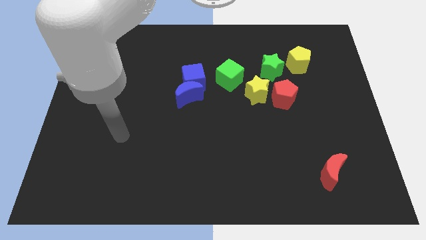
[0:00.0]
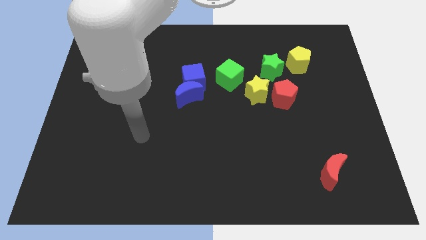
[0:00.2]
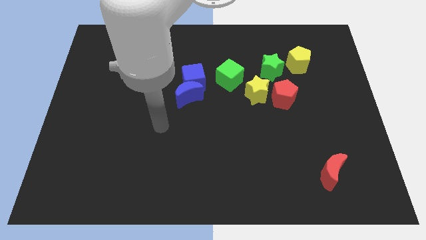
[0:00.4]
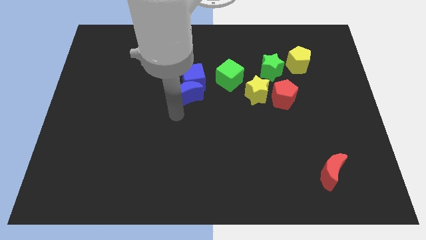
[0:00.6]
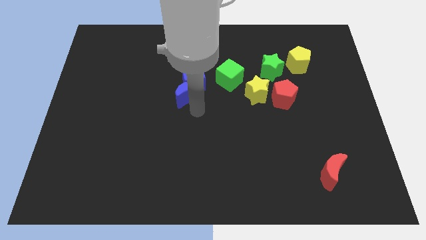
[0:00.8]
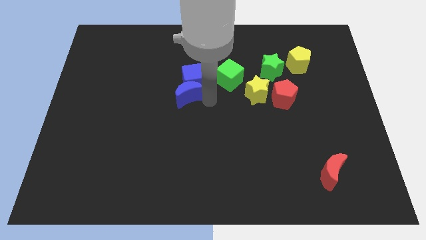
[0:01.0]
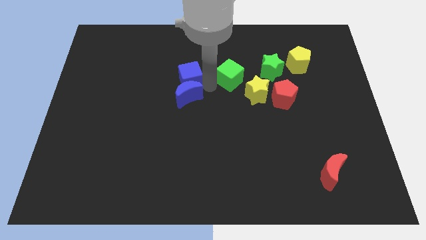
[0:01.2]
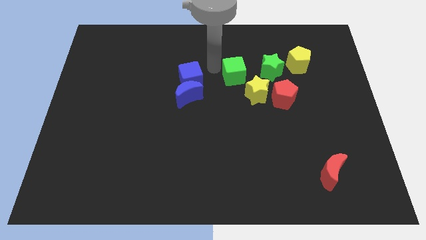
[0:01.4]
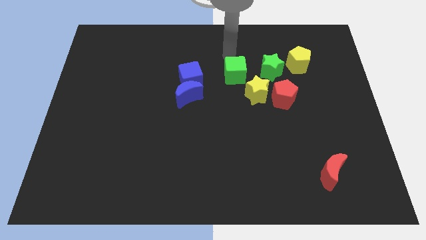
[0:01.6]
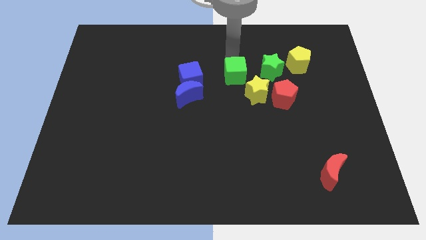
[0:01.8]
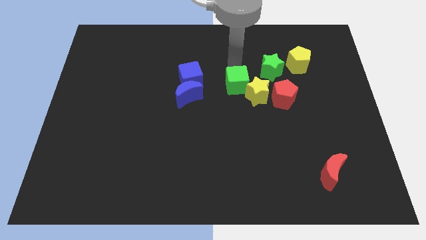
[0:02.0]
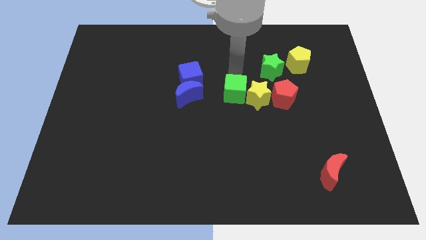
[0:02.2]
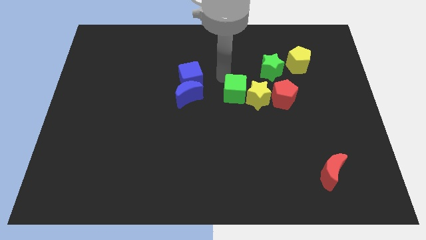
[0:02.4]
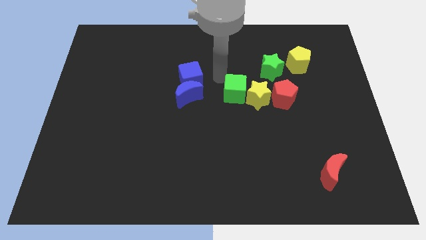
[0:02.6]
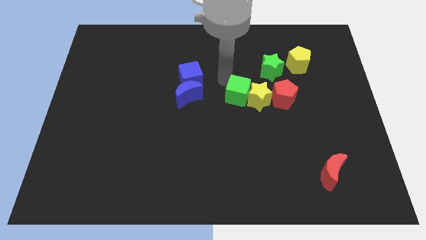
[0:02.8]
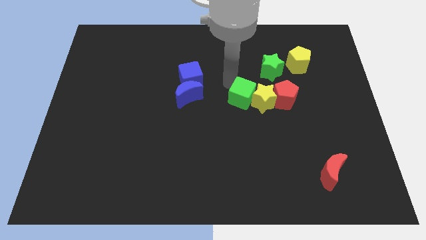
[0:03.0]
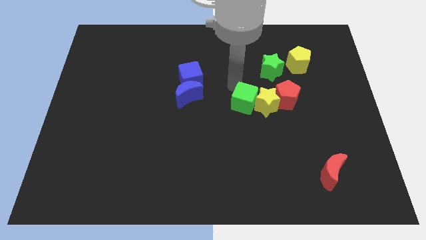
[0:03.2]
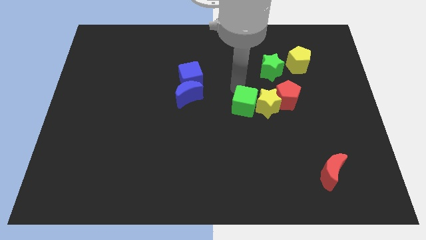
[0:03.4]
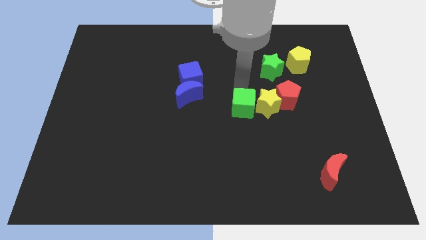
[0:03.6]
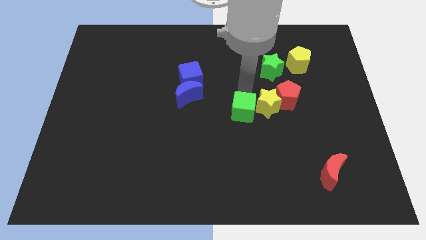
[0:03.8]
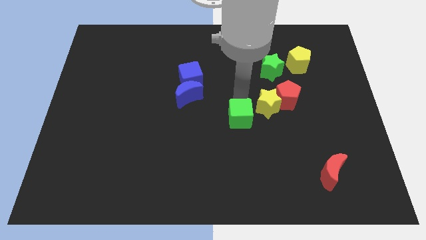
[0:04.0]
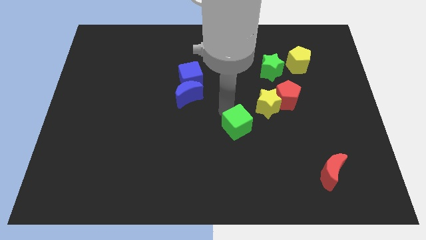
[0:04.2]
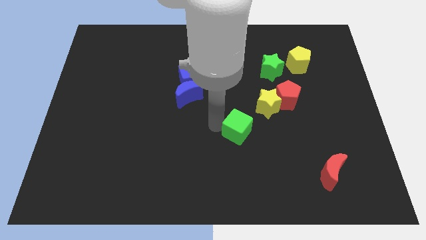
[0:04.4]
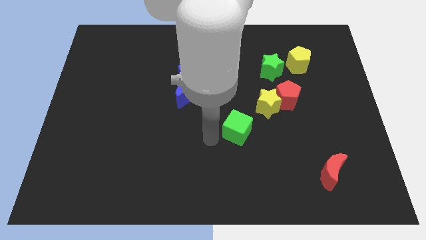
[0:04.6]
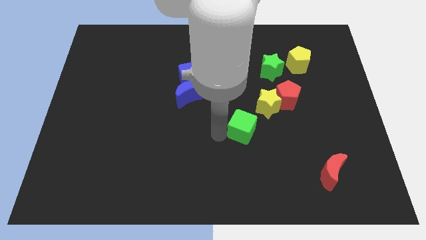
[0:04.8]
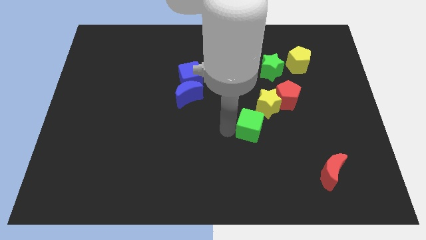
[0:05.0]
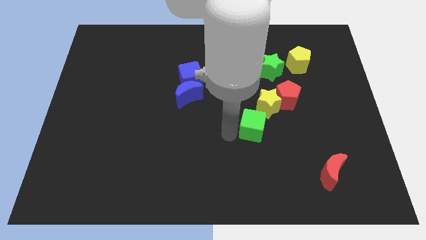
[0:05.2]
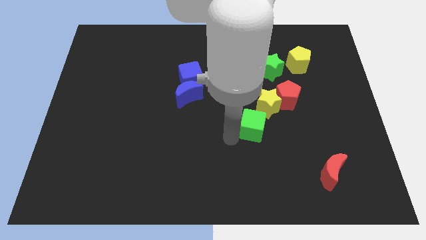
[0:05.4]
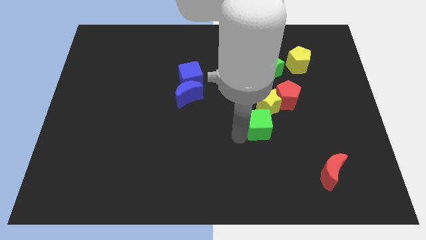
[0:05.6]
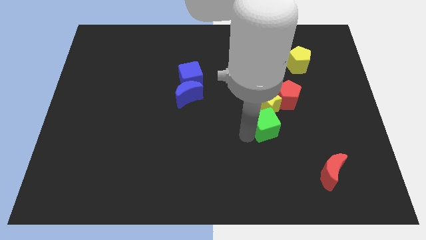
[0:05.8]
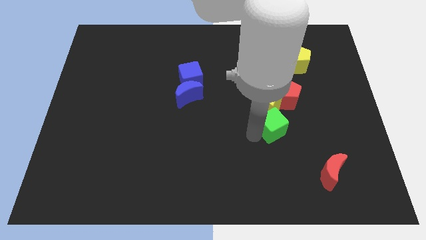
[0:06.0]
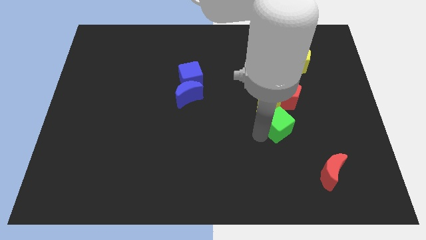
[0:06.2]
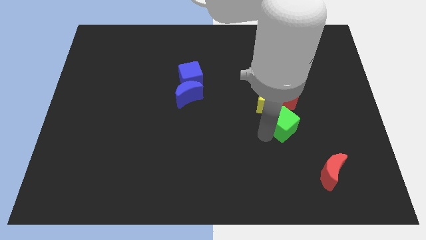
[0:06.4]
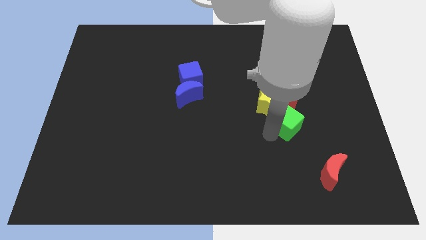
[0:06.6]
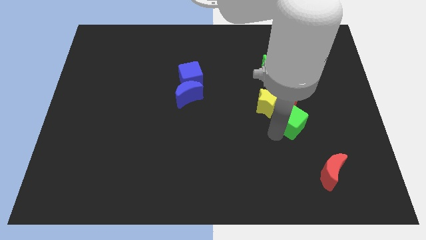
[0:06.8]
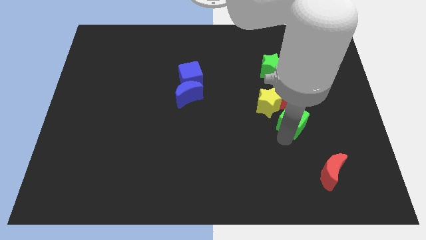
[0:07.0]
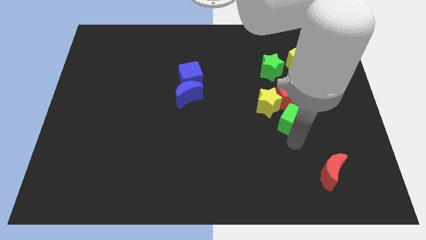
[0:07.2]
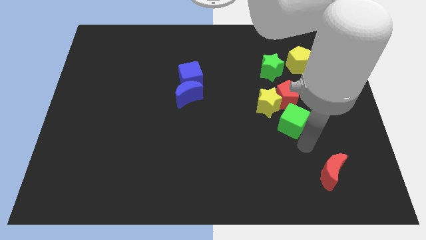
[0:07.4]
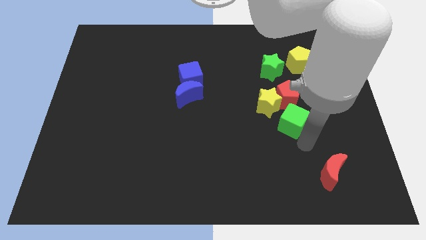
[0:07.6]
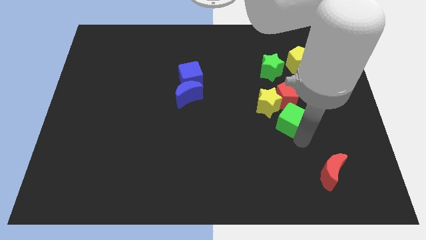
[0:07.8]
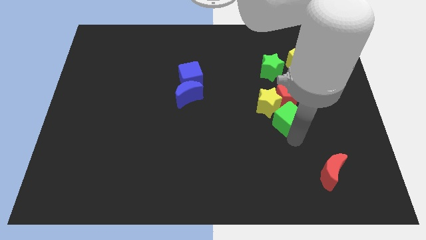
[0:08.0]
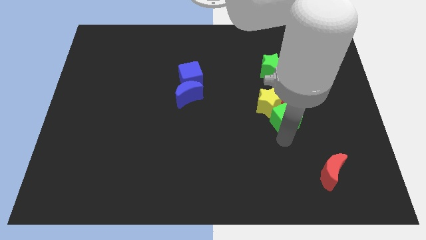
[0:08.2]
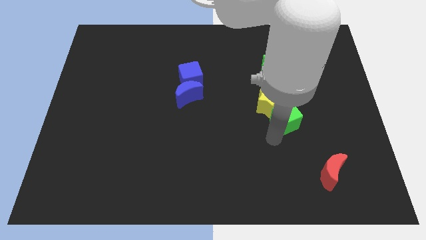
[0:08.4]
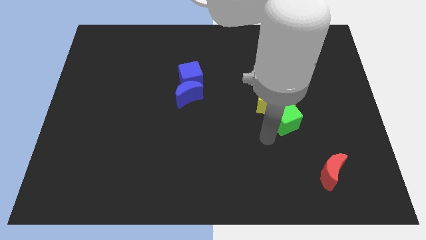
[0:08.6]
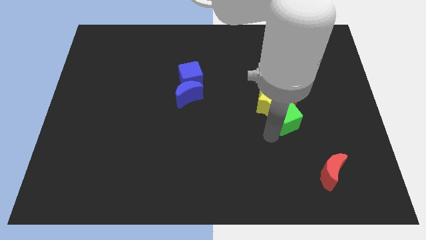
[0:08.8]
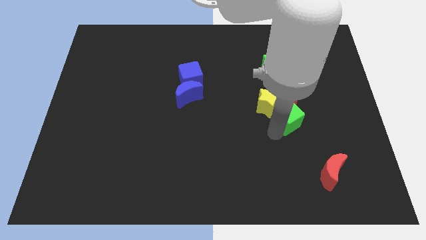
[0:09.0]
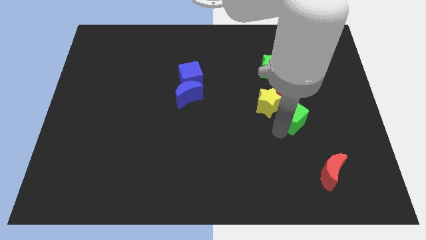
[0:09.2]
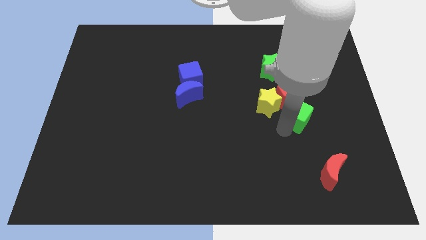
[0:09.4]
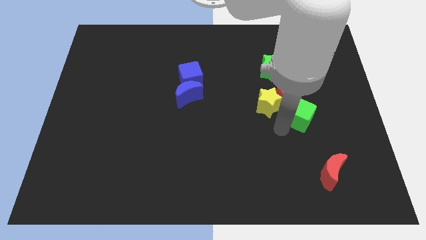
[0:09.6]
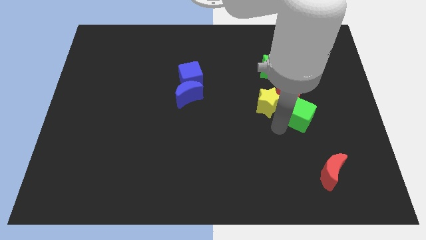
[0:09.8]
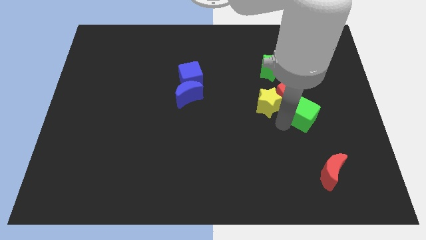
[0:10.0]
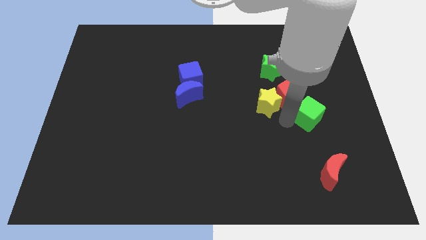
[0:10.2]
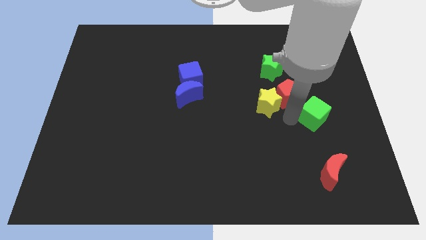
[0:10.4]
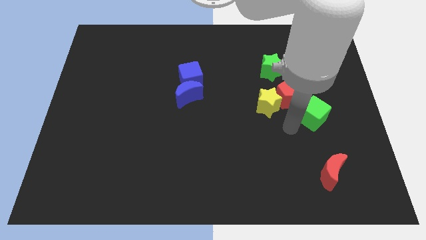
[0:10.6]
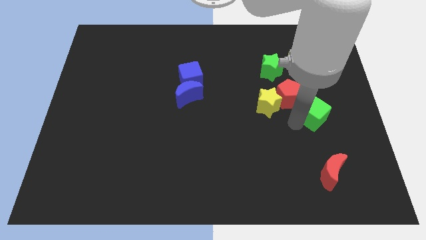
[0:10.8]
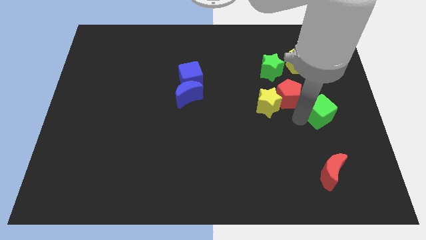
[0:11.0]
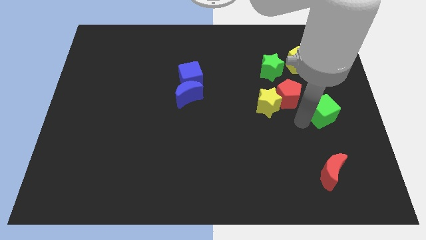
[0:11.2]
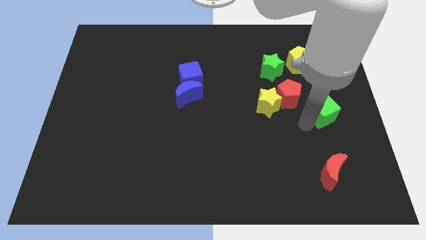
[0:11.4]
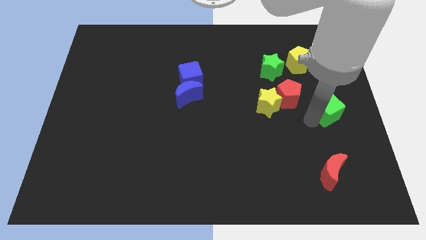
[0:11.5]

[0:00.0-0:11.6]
slide the green cube to the center right

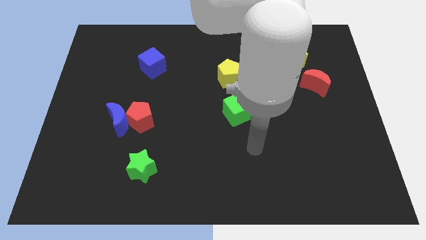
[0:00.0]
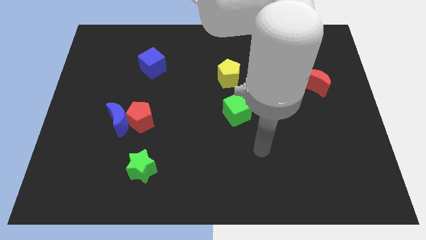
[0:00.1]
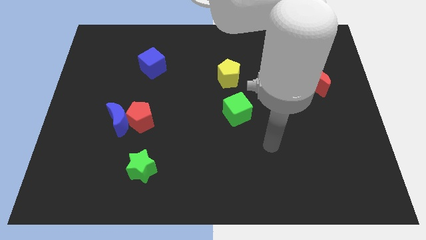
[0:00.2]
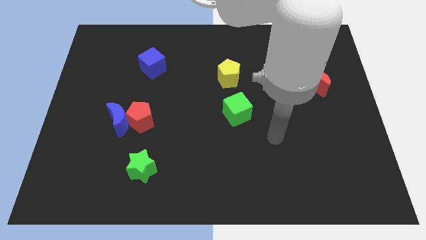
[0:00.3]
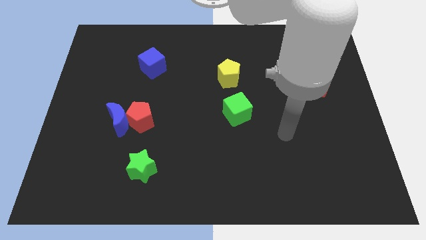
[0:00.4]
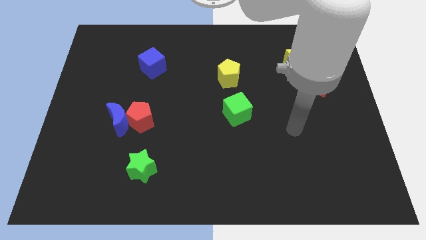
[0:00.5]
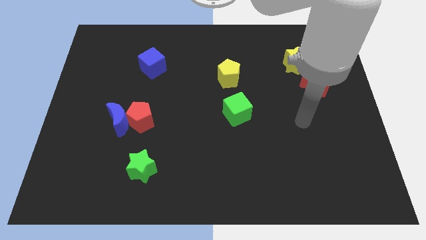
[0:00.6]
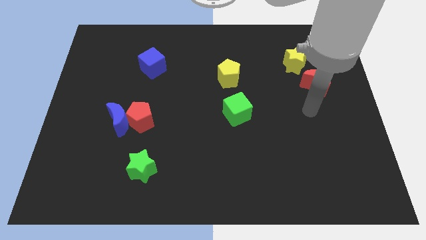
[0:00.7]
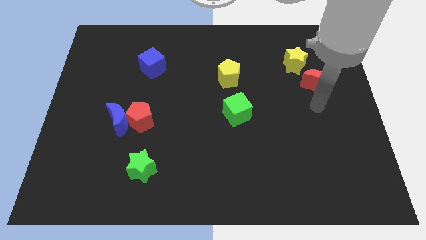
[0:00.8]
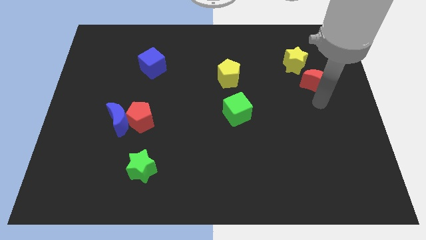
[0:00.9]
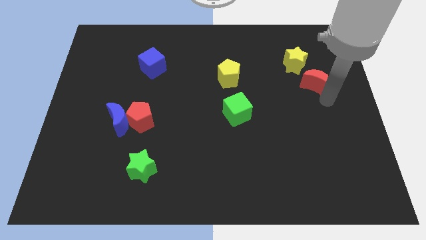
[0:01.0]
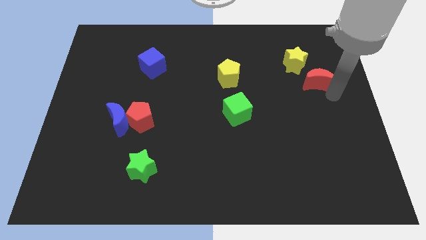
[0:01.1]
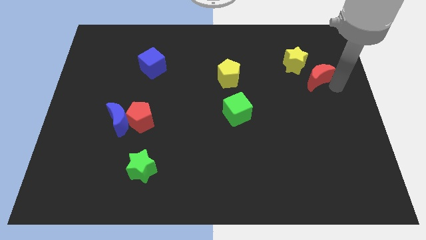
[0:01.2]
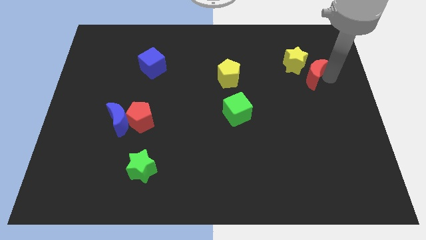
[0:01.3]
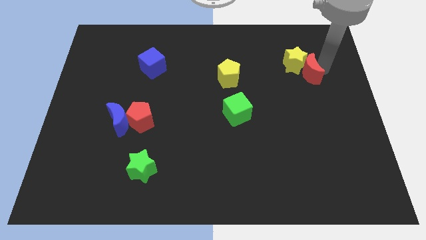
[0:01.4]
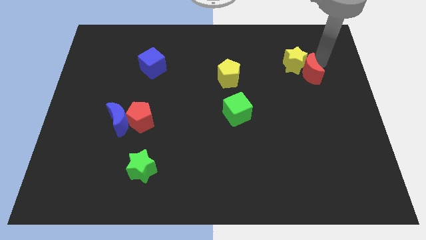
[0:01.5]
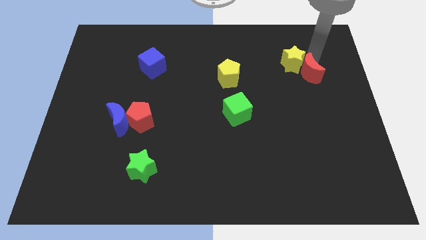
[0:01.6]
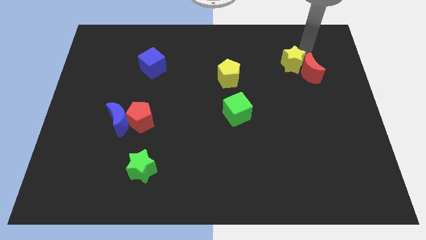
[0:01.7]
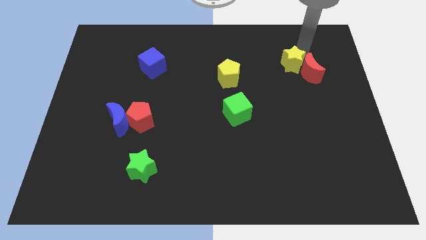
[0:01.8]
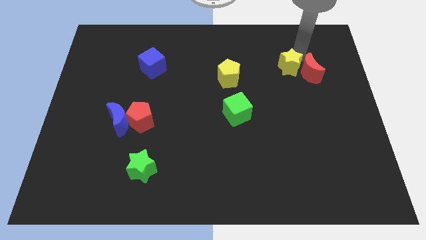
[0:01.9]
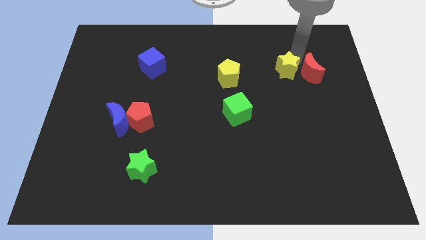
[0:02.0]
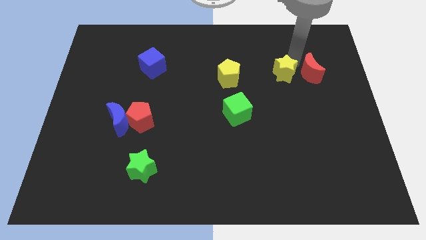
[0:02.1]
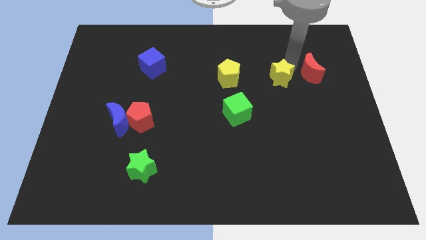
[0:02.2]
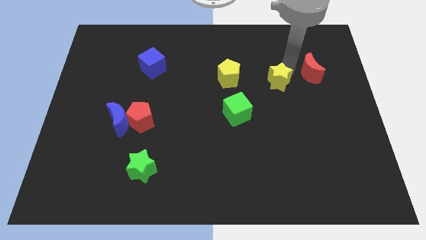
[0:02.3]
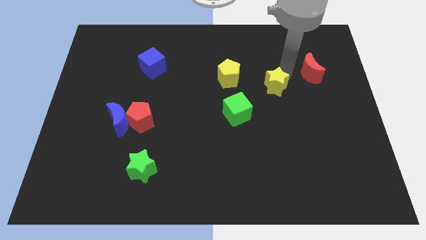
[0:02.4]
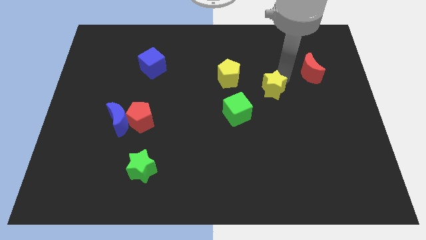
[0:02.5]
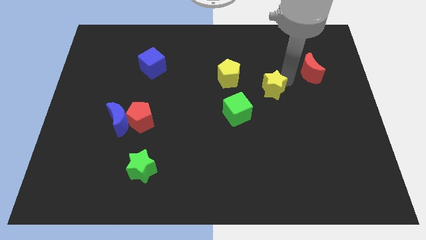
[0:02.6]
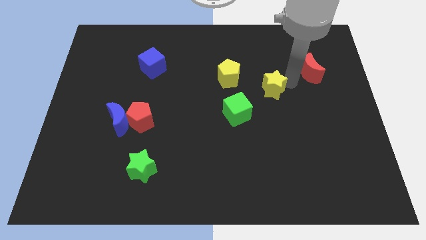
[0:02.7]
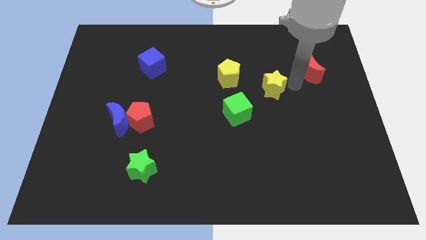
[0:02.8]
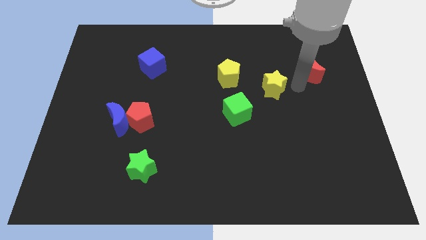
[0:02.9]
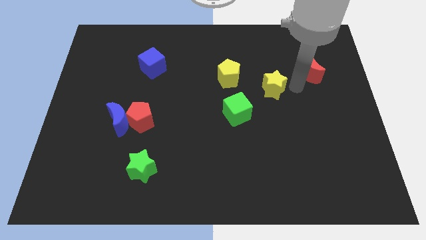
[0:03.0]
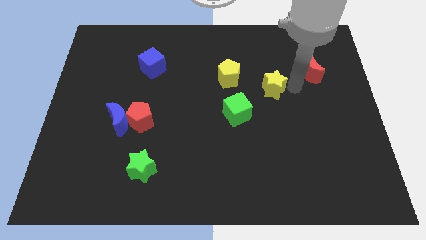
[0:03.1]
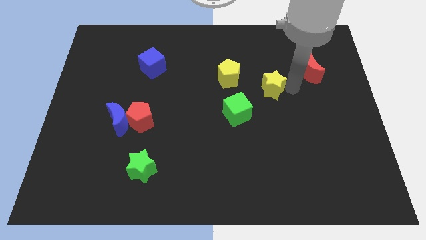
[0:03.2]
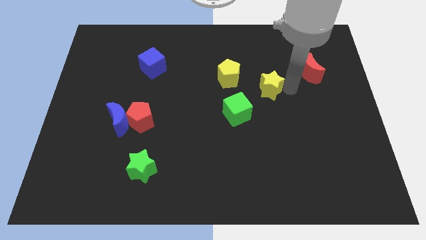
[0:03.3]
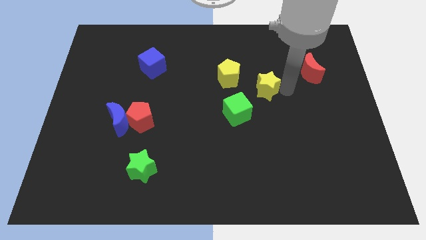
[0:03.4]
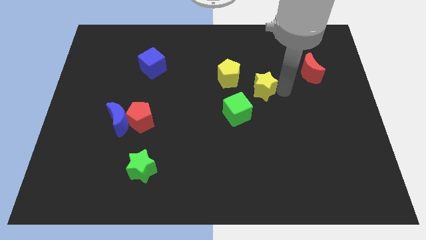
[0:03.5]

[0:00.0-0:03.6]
put the yellow star to the center of the board
